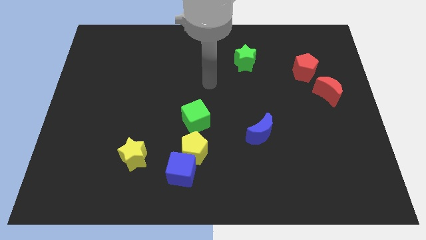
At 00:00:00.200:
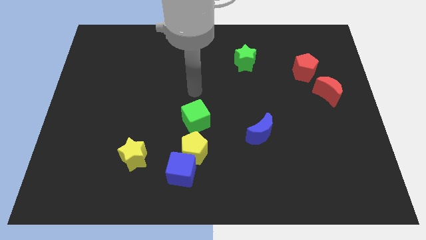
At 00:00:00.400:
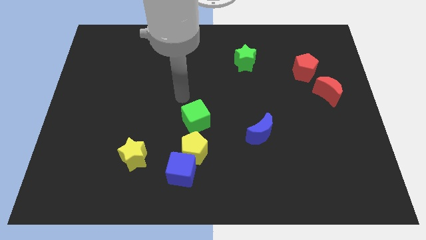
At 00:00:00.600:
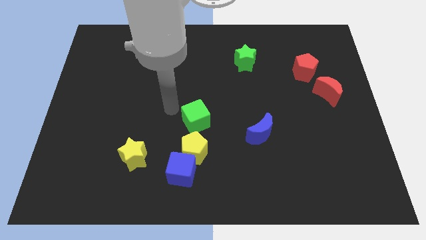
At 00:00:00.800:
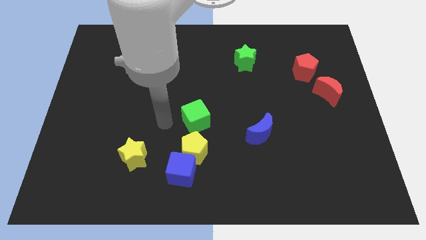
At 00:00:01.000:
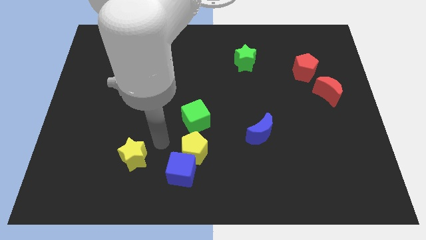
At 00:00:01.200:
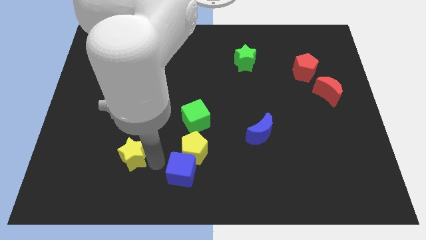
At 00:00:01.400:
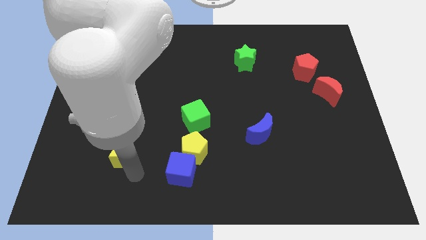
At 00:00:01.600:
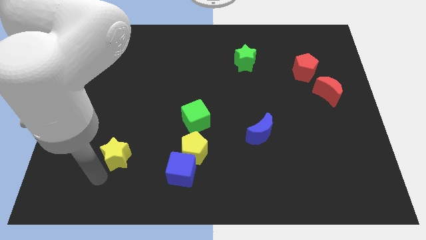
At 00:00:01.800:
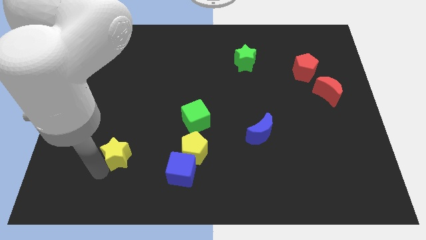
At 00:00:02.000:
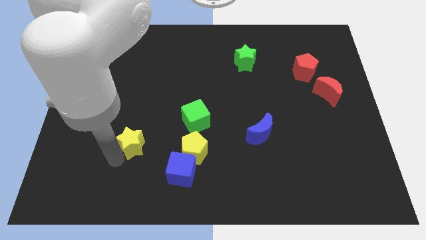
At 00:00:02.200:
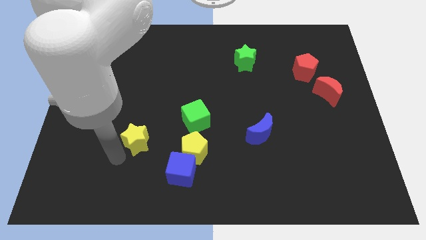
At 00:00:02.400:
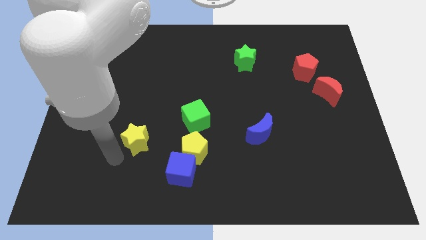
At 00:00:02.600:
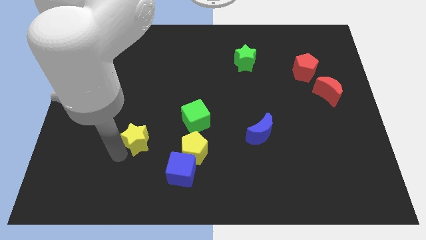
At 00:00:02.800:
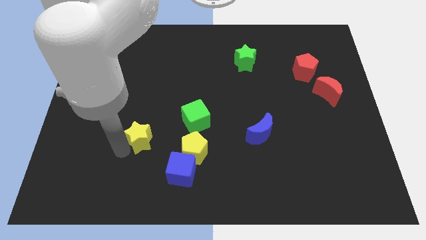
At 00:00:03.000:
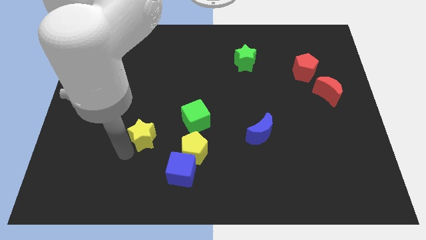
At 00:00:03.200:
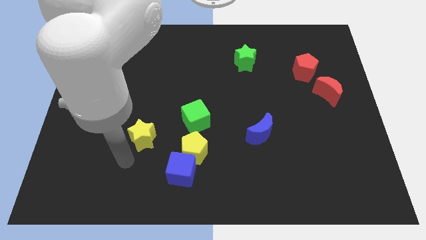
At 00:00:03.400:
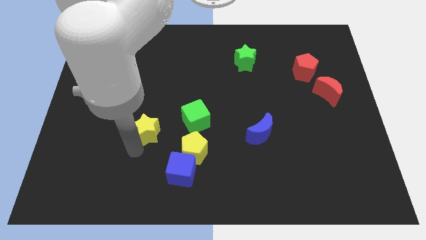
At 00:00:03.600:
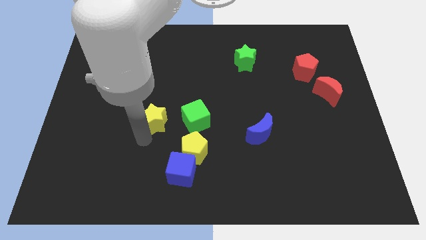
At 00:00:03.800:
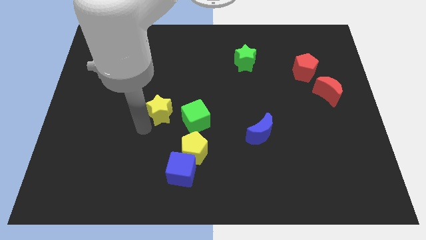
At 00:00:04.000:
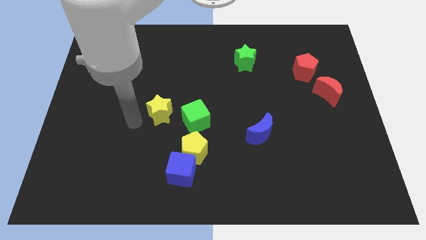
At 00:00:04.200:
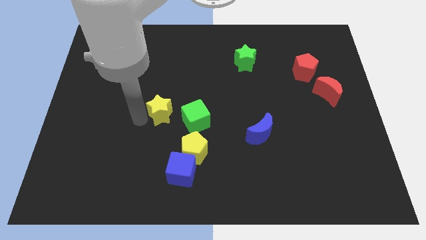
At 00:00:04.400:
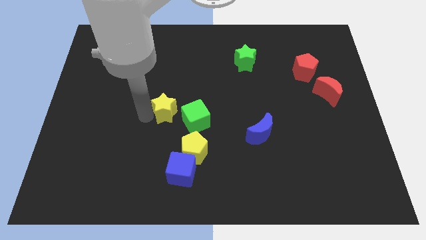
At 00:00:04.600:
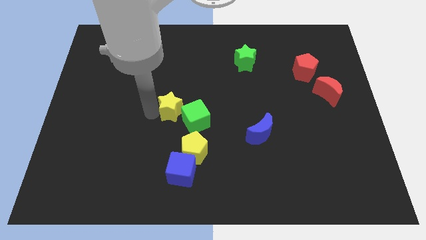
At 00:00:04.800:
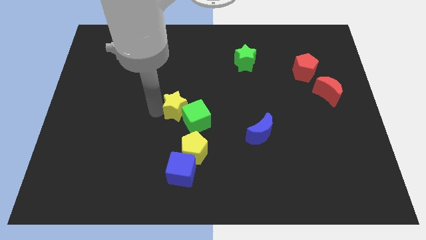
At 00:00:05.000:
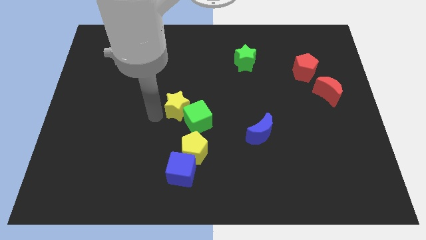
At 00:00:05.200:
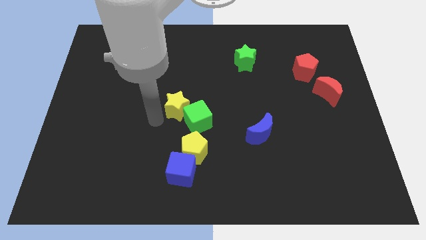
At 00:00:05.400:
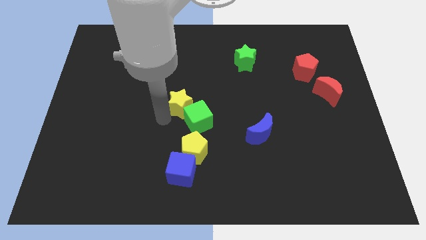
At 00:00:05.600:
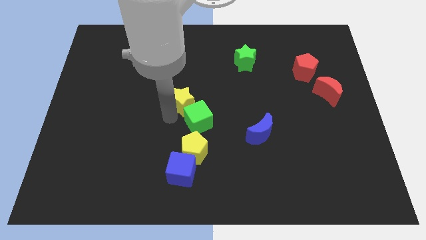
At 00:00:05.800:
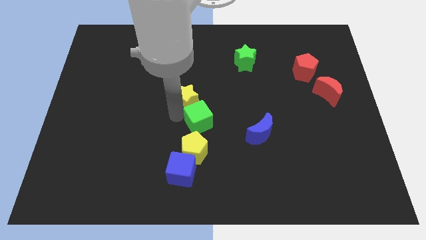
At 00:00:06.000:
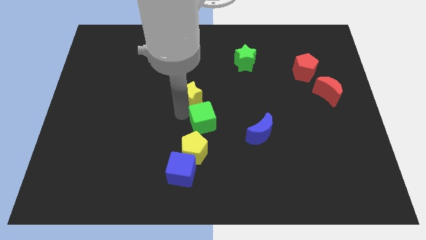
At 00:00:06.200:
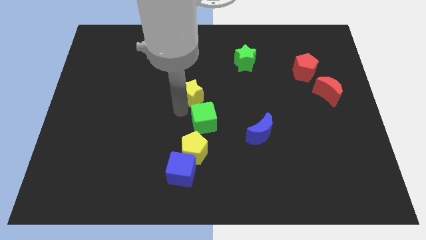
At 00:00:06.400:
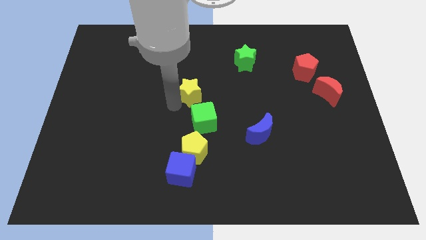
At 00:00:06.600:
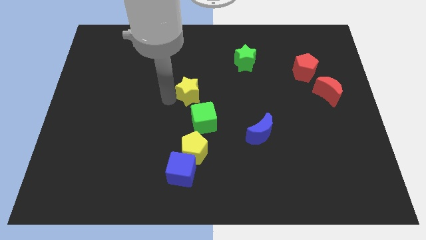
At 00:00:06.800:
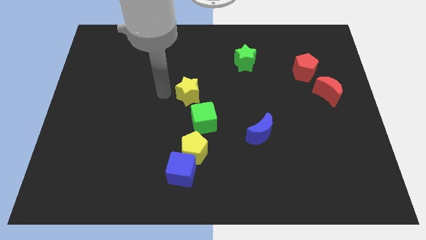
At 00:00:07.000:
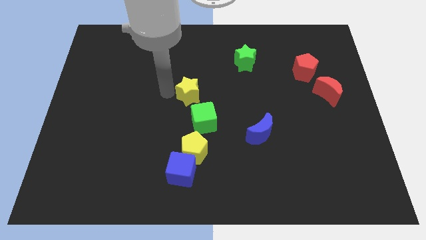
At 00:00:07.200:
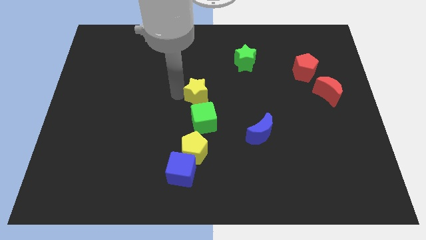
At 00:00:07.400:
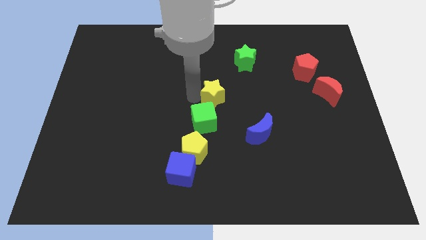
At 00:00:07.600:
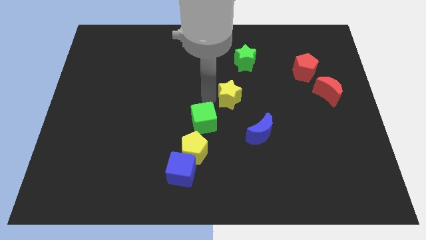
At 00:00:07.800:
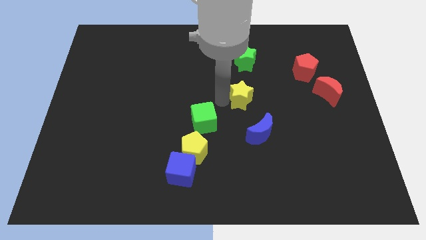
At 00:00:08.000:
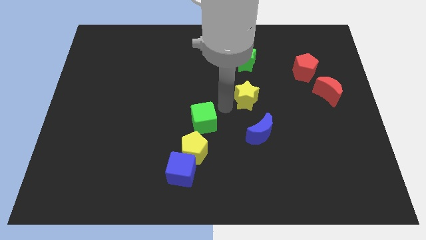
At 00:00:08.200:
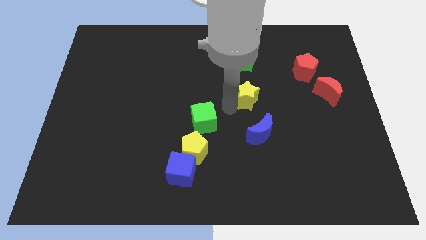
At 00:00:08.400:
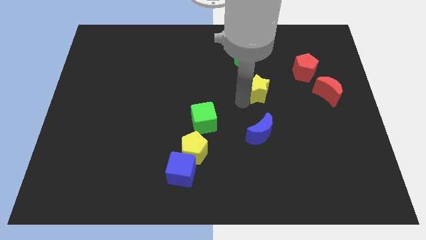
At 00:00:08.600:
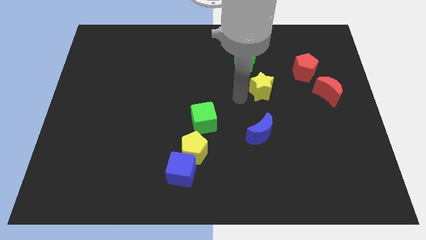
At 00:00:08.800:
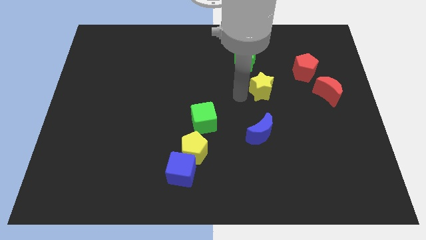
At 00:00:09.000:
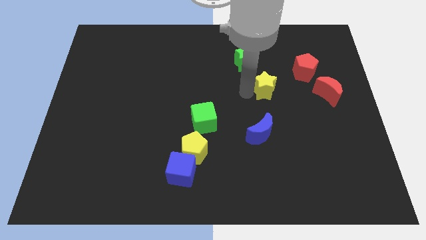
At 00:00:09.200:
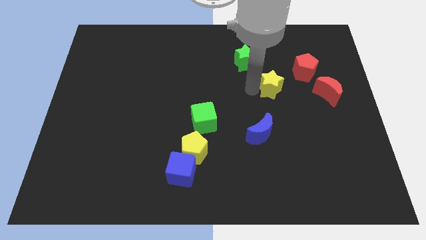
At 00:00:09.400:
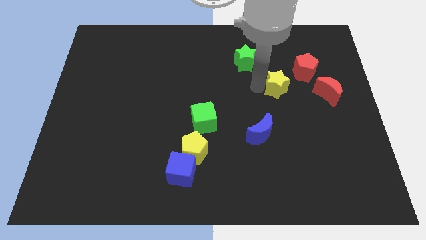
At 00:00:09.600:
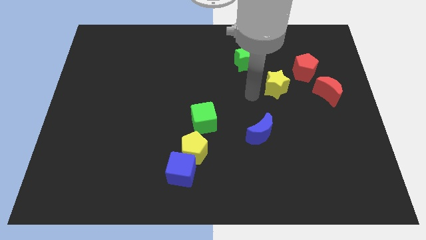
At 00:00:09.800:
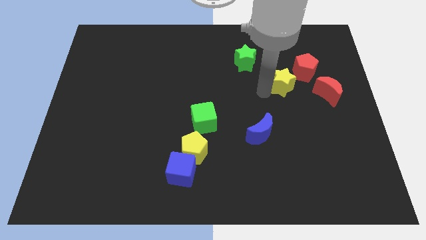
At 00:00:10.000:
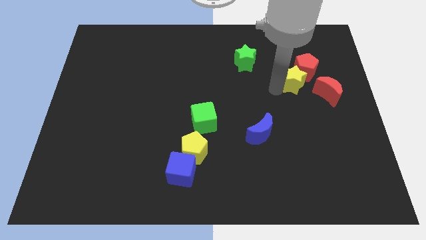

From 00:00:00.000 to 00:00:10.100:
move the yellow star close to the red pentagon

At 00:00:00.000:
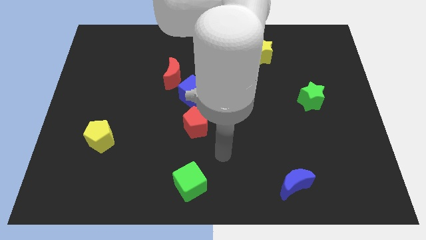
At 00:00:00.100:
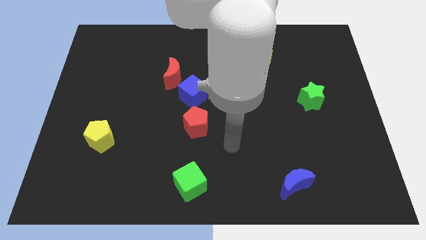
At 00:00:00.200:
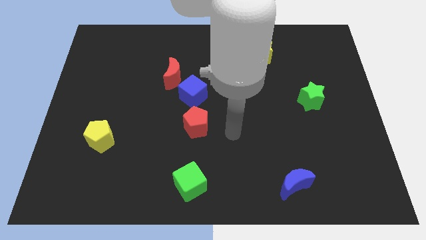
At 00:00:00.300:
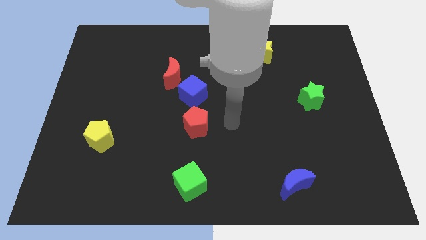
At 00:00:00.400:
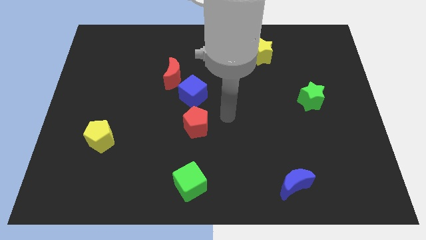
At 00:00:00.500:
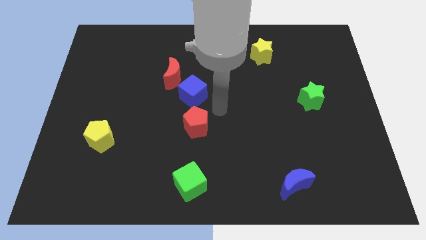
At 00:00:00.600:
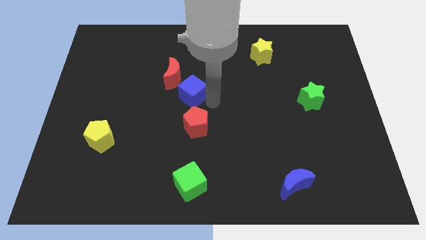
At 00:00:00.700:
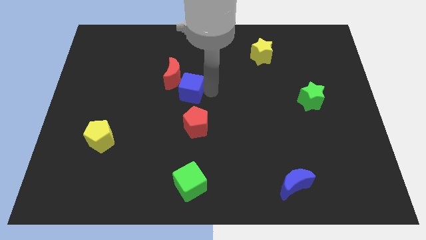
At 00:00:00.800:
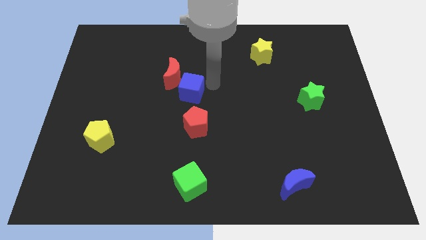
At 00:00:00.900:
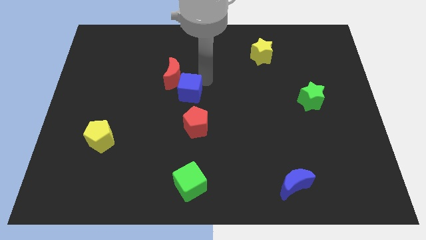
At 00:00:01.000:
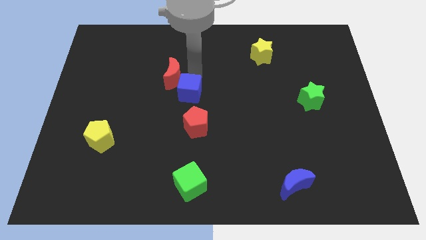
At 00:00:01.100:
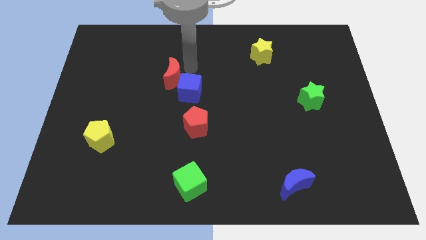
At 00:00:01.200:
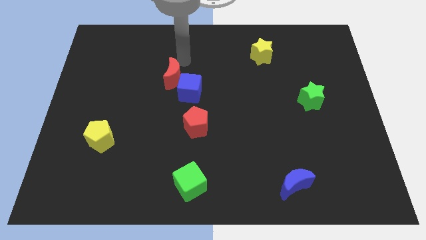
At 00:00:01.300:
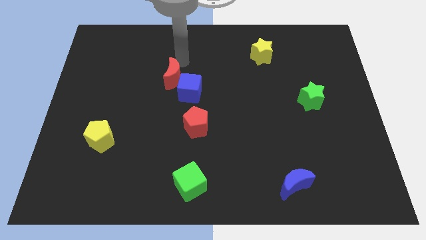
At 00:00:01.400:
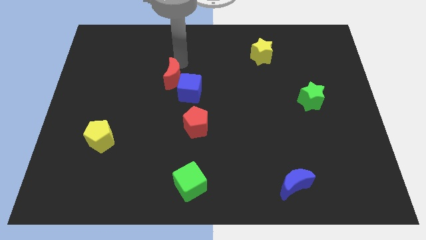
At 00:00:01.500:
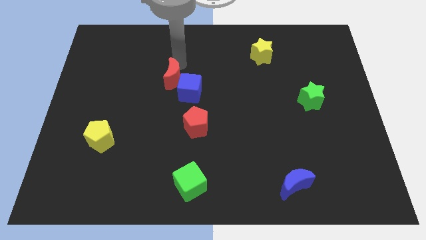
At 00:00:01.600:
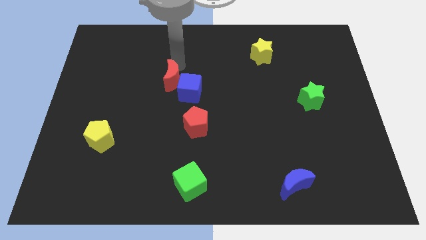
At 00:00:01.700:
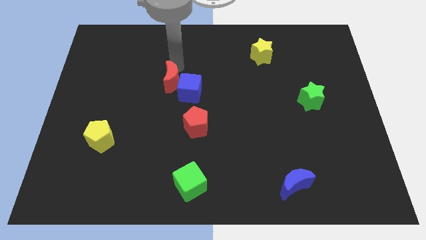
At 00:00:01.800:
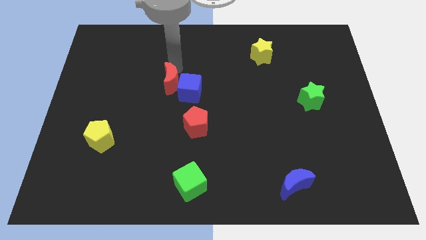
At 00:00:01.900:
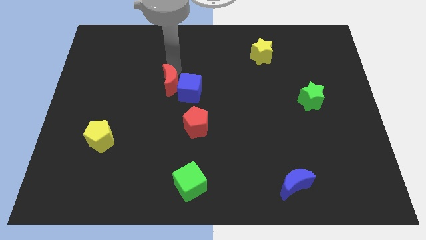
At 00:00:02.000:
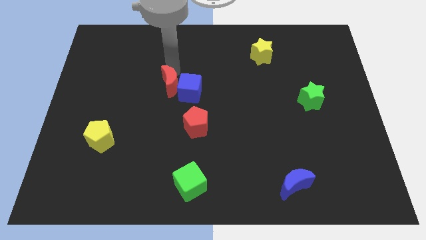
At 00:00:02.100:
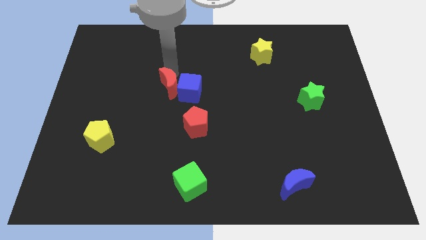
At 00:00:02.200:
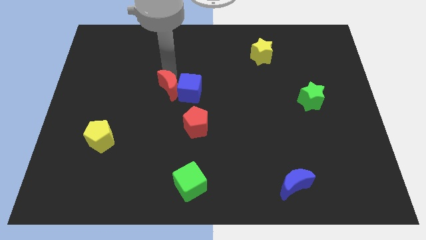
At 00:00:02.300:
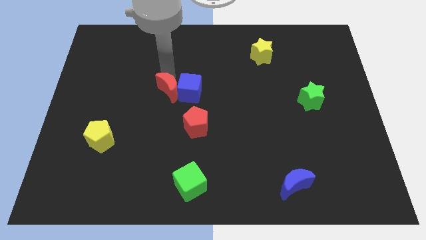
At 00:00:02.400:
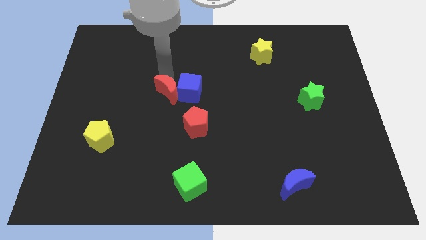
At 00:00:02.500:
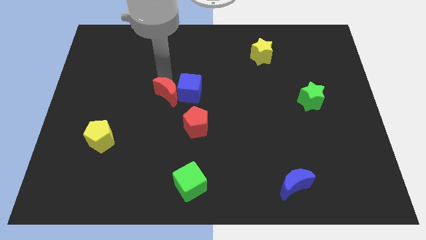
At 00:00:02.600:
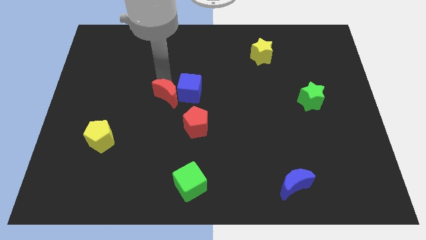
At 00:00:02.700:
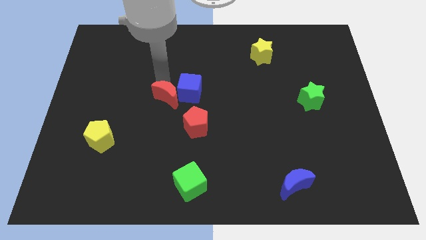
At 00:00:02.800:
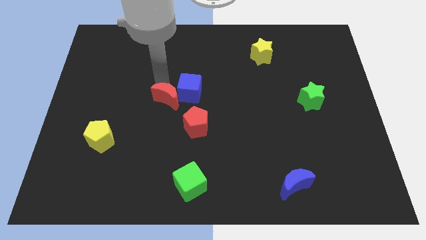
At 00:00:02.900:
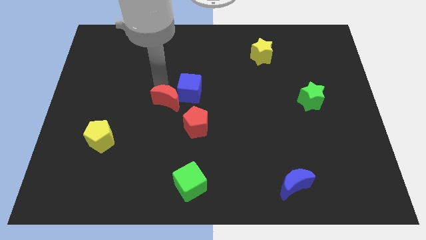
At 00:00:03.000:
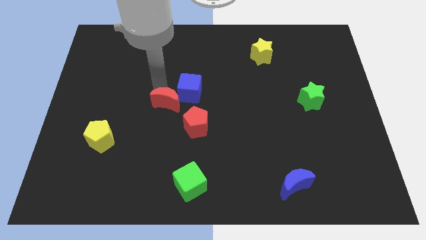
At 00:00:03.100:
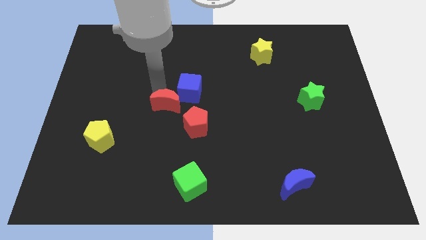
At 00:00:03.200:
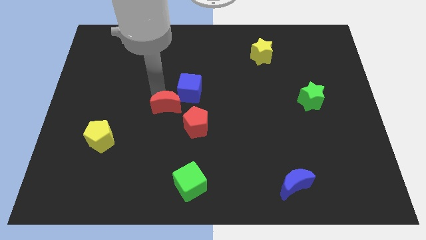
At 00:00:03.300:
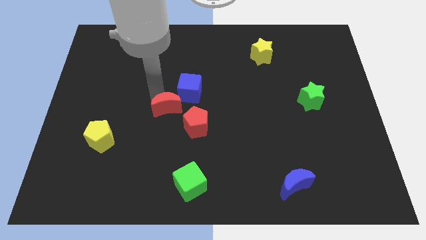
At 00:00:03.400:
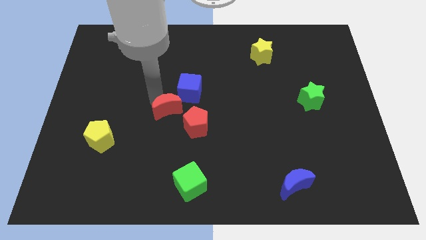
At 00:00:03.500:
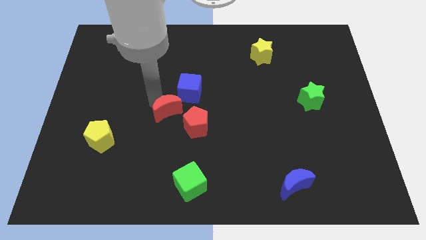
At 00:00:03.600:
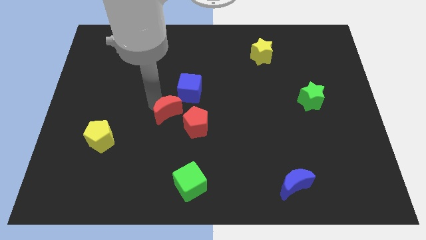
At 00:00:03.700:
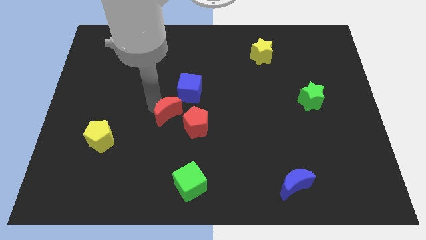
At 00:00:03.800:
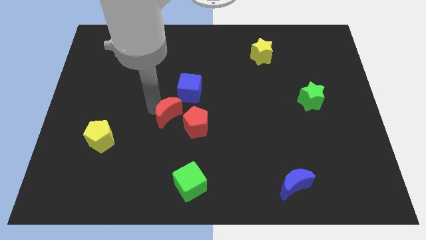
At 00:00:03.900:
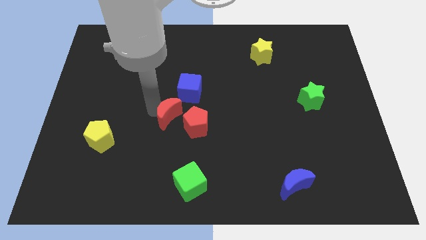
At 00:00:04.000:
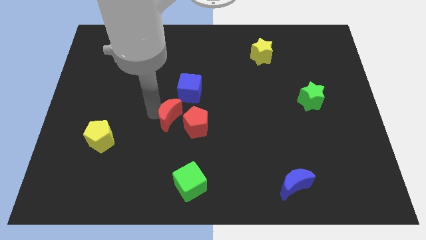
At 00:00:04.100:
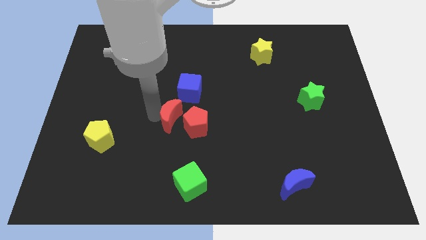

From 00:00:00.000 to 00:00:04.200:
put the red moon to the red pentagon
